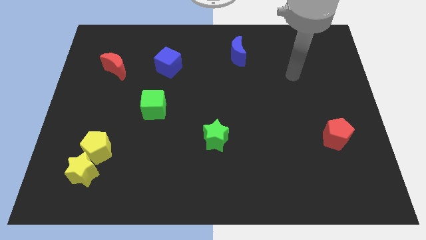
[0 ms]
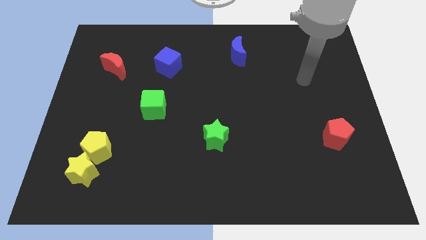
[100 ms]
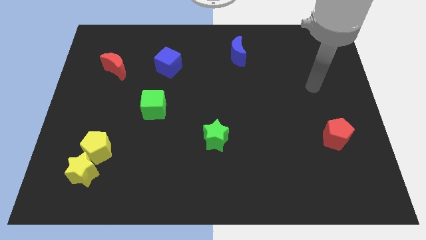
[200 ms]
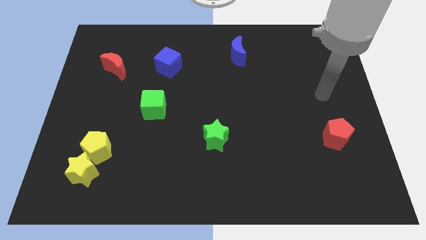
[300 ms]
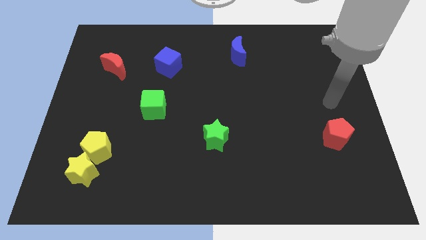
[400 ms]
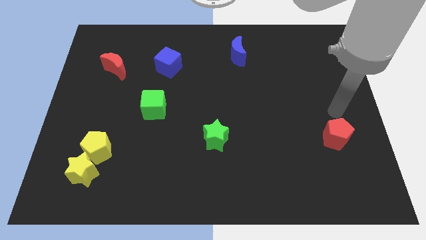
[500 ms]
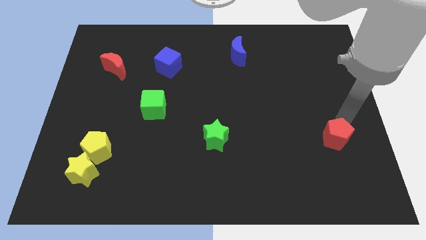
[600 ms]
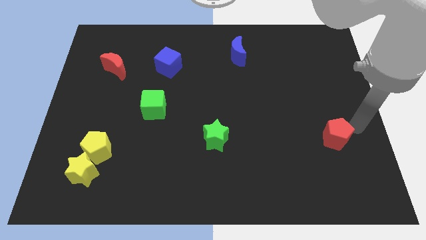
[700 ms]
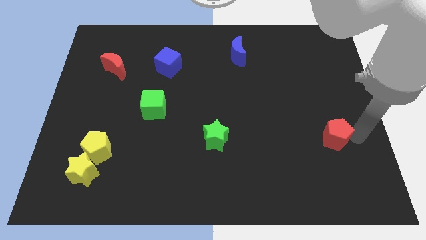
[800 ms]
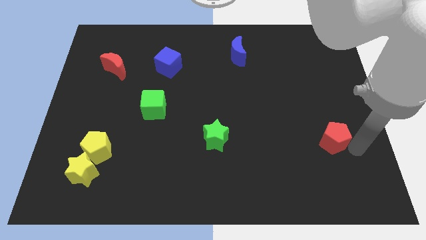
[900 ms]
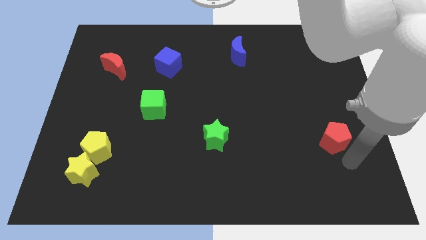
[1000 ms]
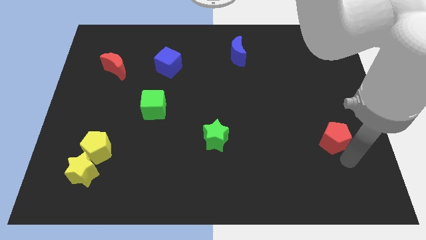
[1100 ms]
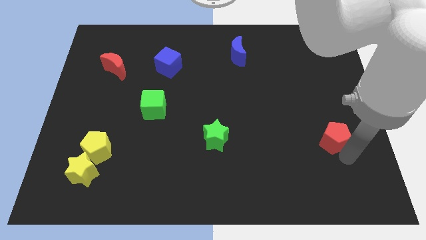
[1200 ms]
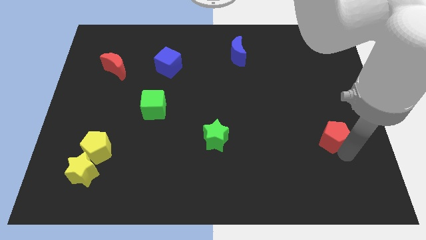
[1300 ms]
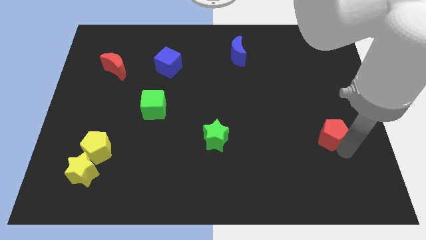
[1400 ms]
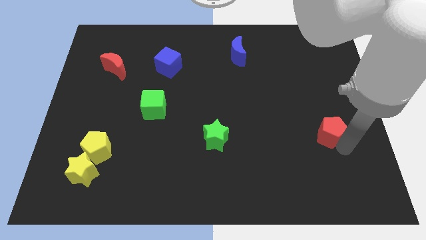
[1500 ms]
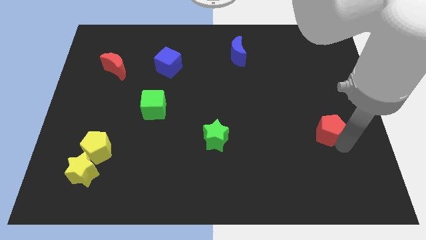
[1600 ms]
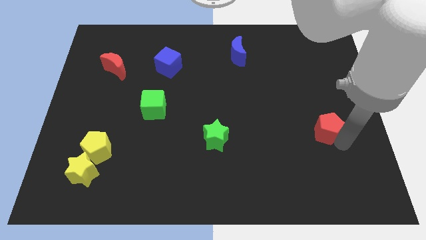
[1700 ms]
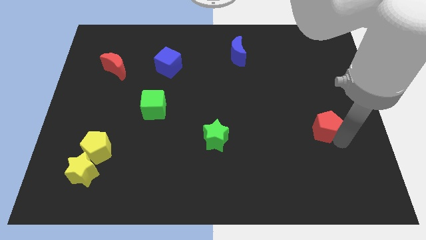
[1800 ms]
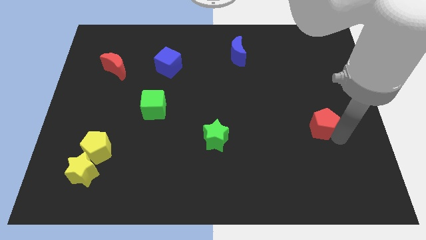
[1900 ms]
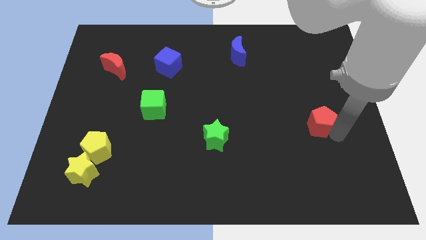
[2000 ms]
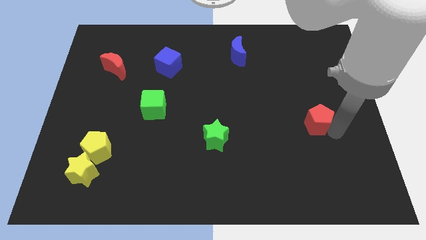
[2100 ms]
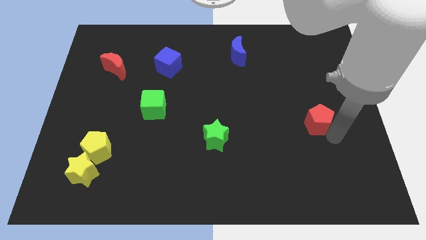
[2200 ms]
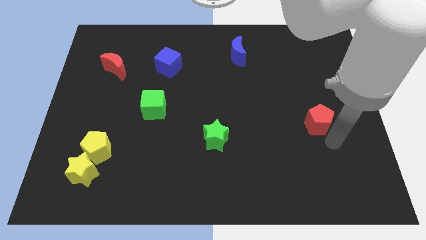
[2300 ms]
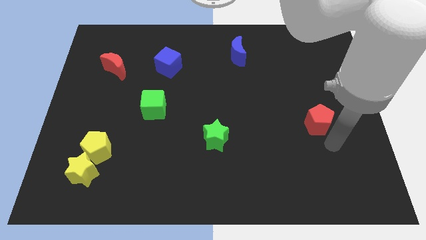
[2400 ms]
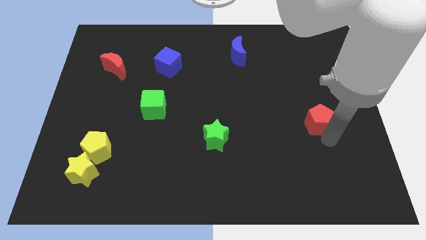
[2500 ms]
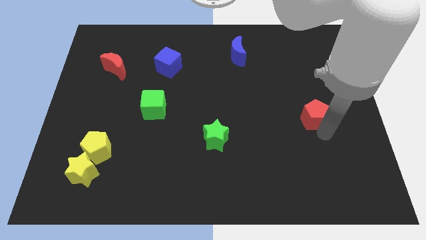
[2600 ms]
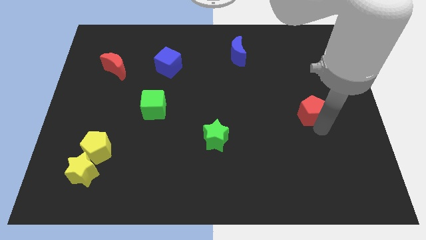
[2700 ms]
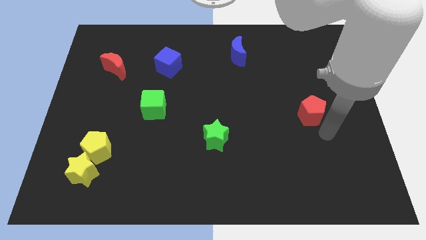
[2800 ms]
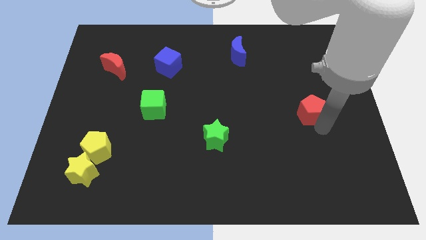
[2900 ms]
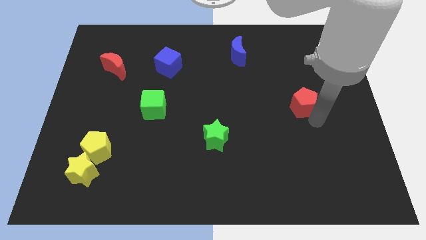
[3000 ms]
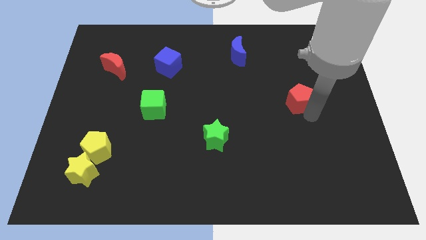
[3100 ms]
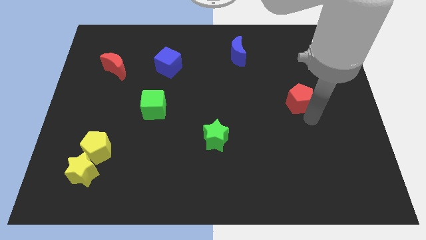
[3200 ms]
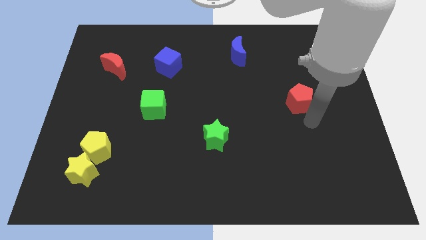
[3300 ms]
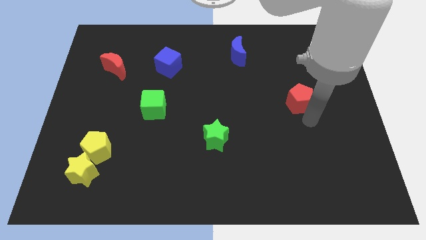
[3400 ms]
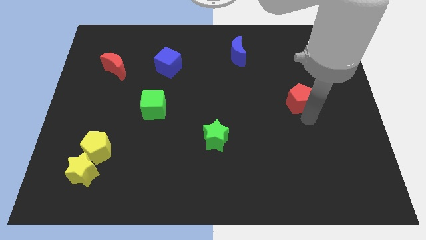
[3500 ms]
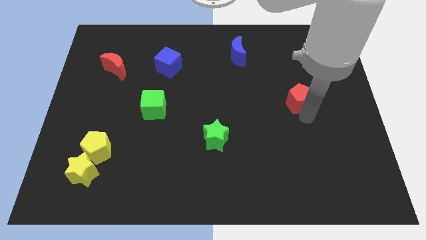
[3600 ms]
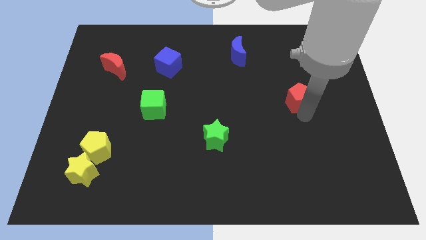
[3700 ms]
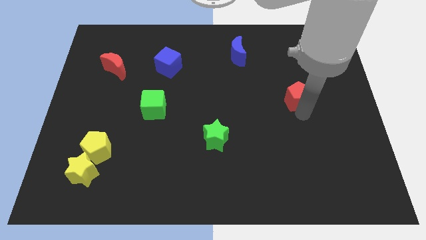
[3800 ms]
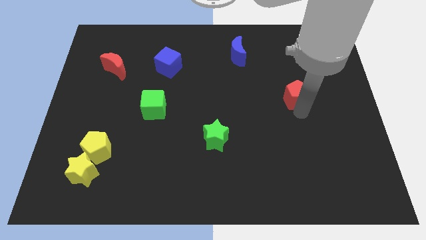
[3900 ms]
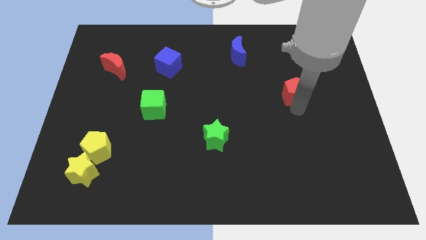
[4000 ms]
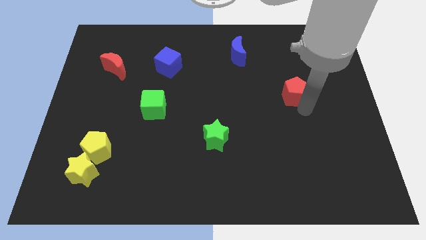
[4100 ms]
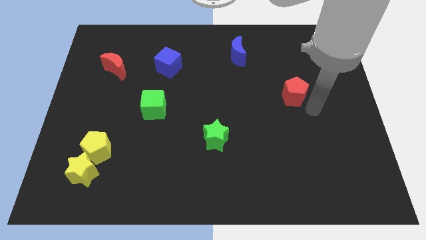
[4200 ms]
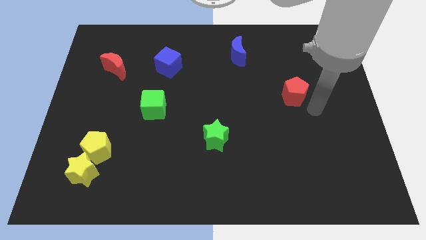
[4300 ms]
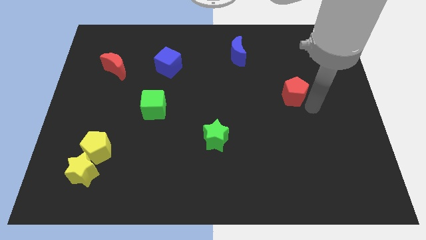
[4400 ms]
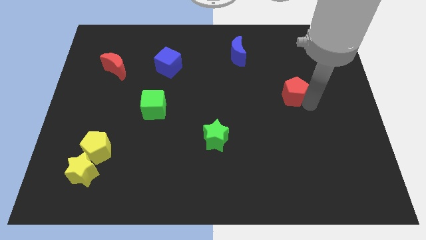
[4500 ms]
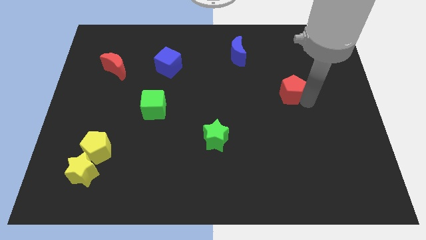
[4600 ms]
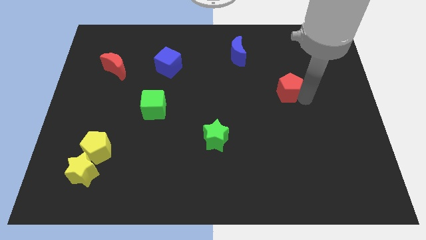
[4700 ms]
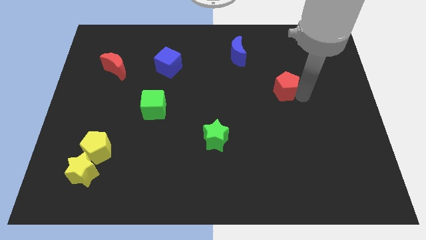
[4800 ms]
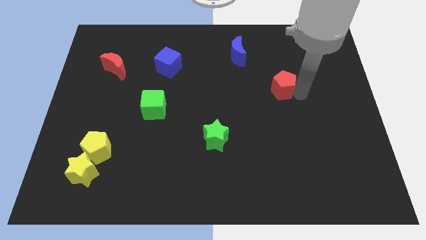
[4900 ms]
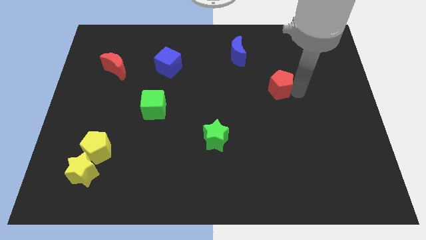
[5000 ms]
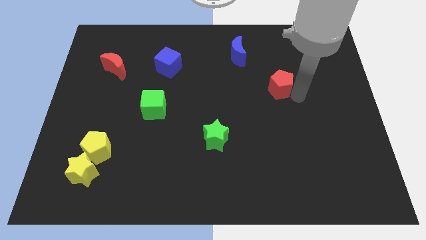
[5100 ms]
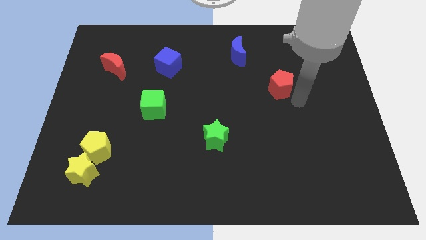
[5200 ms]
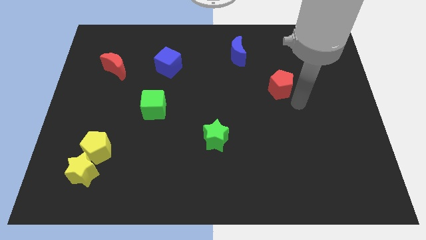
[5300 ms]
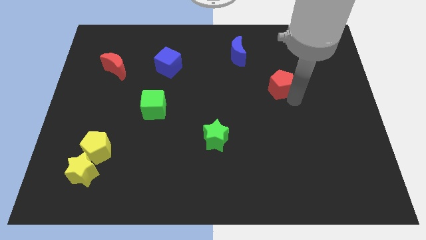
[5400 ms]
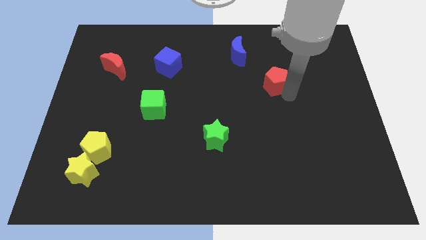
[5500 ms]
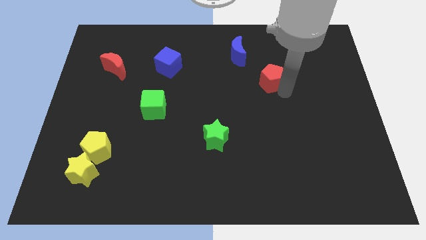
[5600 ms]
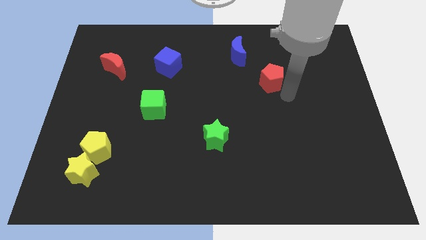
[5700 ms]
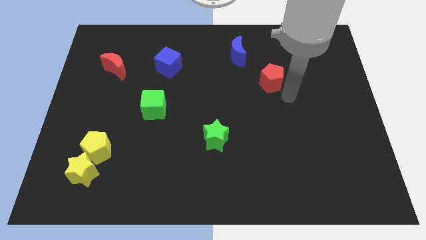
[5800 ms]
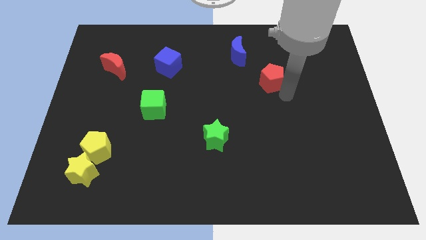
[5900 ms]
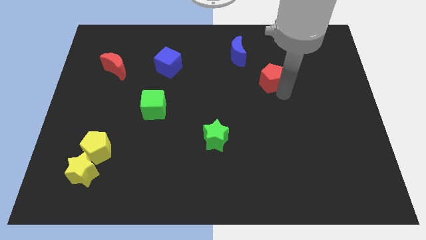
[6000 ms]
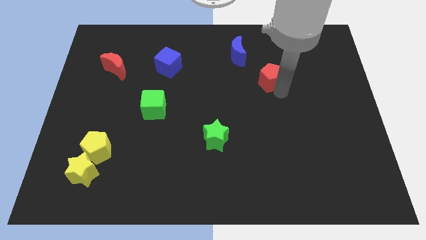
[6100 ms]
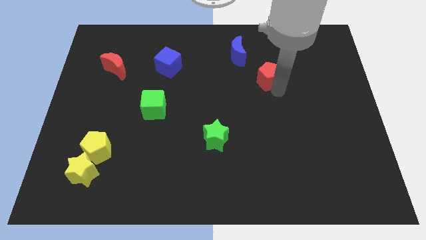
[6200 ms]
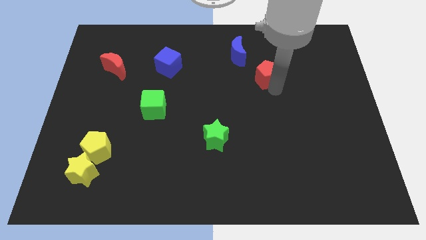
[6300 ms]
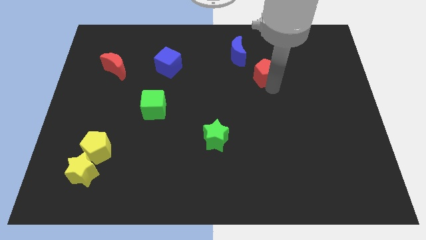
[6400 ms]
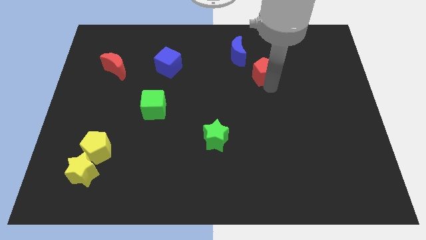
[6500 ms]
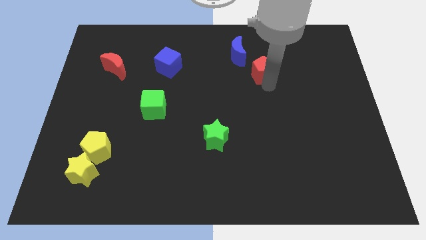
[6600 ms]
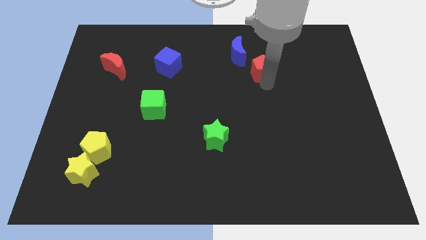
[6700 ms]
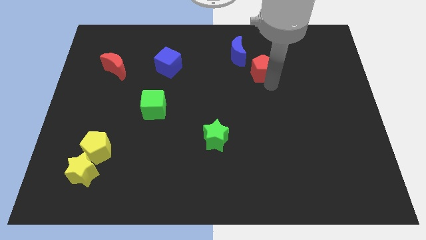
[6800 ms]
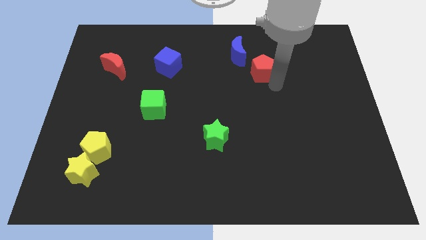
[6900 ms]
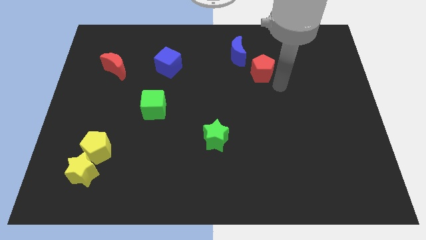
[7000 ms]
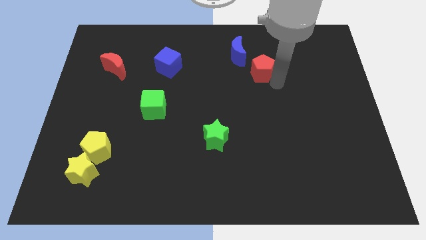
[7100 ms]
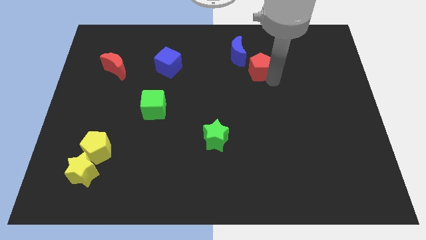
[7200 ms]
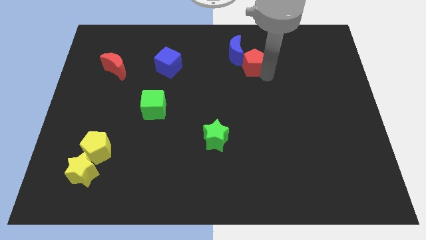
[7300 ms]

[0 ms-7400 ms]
push the red pentagon close to the blue moon
